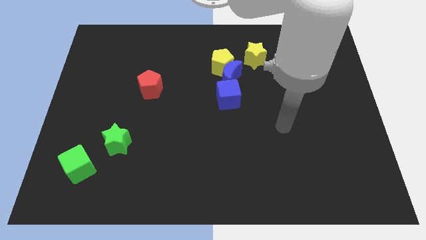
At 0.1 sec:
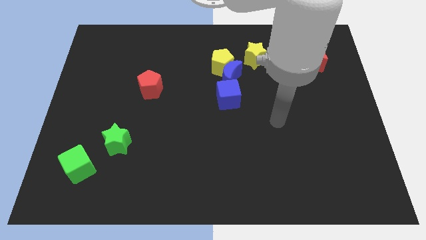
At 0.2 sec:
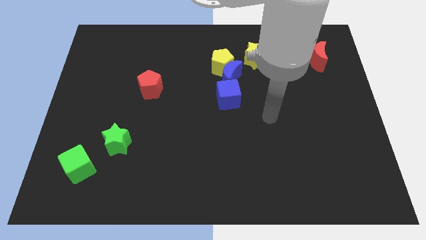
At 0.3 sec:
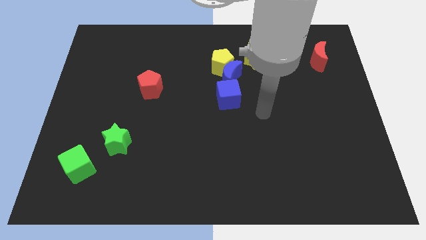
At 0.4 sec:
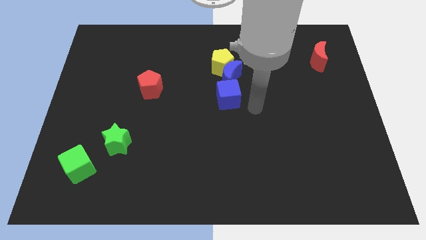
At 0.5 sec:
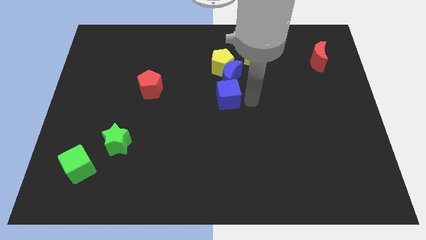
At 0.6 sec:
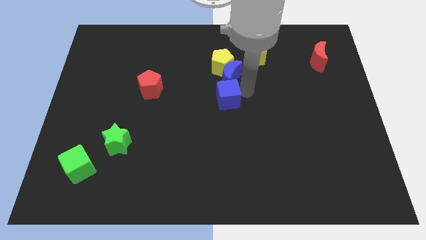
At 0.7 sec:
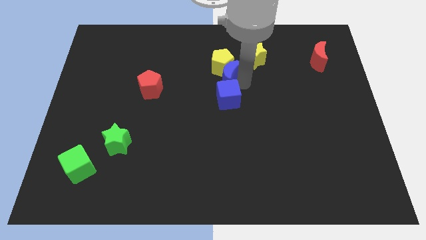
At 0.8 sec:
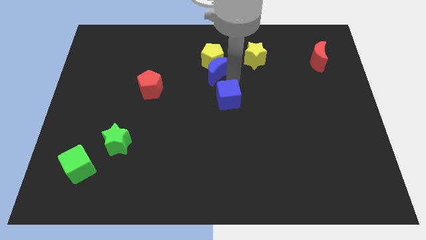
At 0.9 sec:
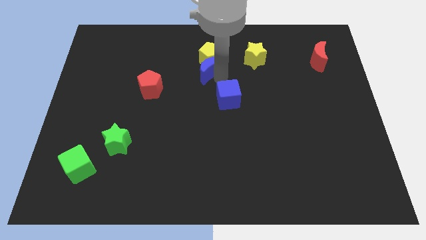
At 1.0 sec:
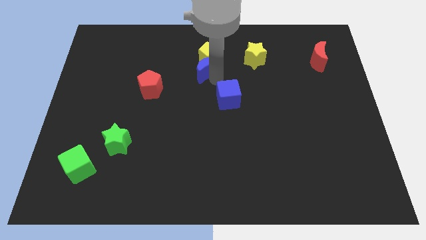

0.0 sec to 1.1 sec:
separate the blue cube from the blue moon

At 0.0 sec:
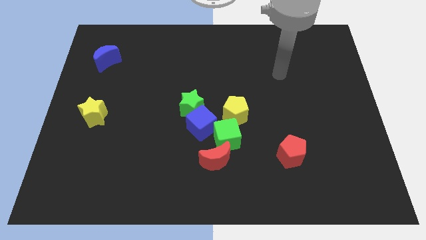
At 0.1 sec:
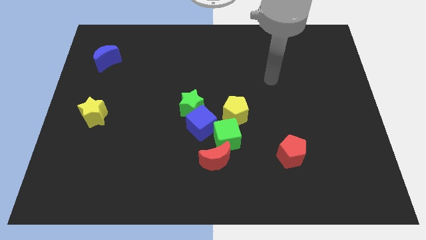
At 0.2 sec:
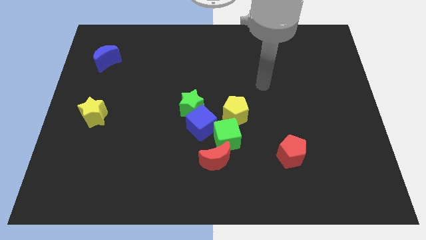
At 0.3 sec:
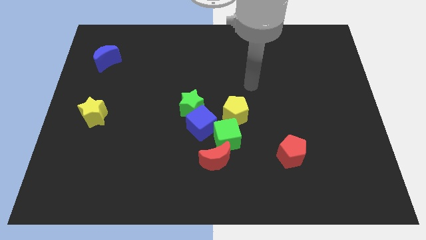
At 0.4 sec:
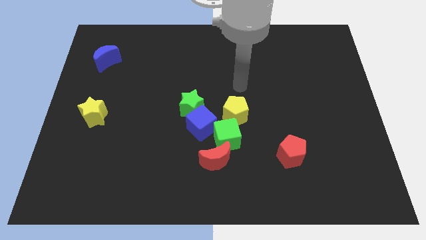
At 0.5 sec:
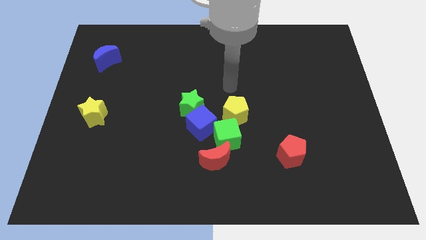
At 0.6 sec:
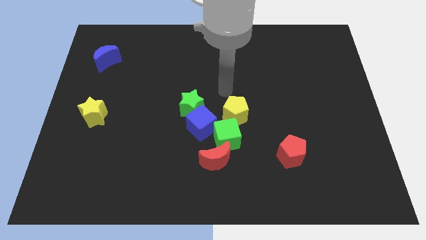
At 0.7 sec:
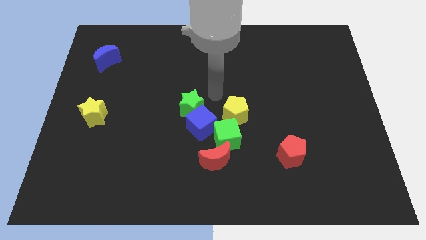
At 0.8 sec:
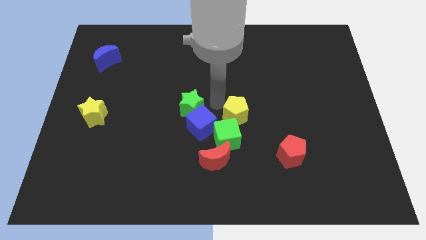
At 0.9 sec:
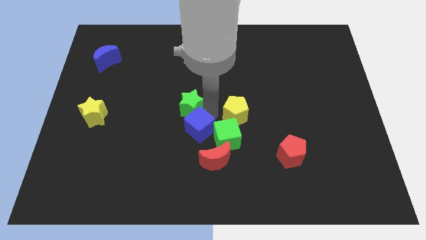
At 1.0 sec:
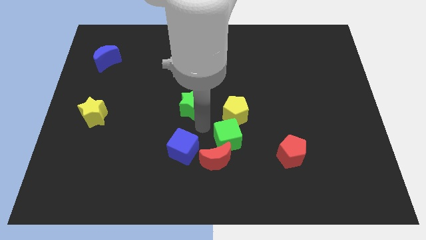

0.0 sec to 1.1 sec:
pull the green star apart from the blue cube

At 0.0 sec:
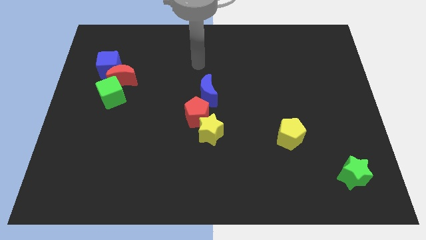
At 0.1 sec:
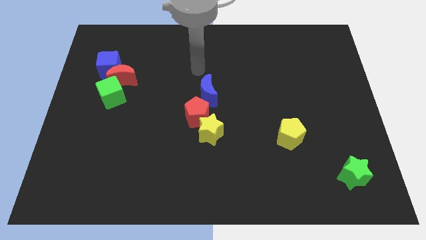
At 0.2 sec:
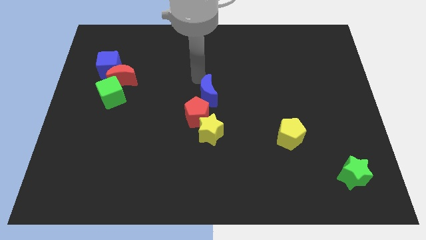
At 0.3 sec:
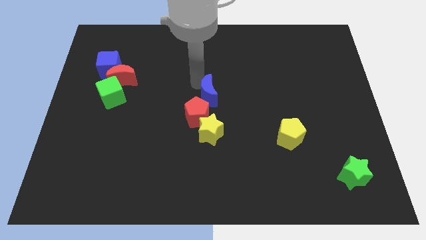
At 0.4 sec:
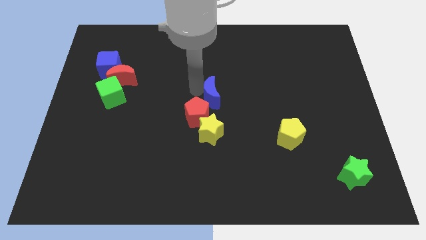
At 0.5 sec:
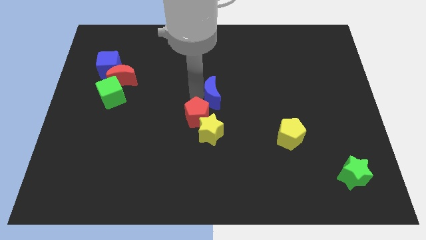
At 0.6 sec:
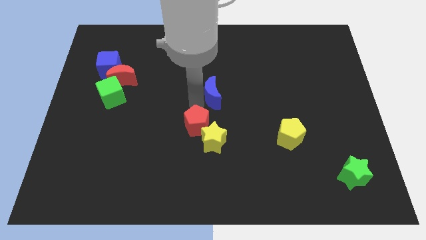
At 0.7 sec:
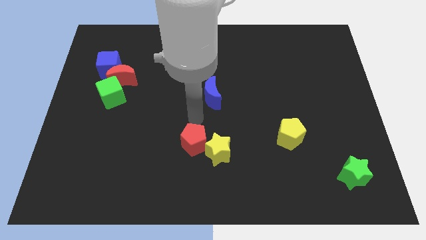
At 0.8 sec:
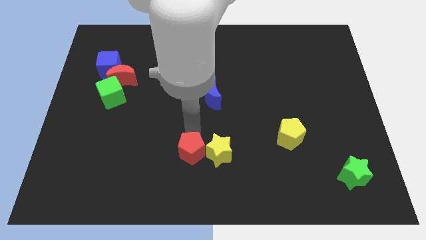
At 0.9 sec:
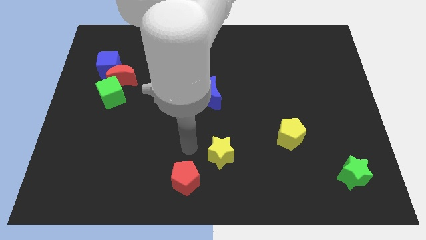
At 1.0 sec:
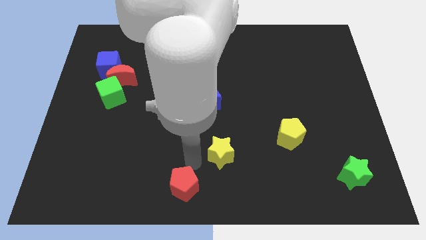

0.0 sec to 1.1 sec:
pull the yellow star apart from the red pentagon

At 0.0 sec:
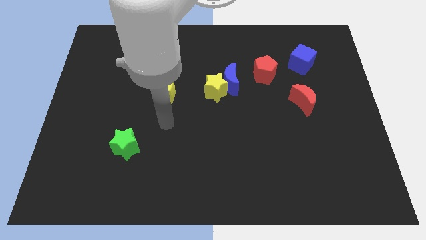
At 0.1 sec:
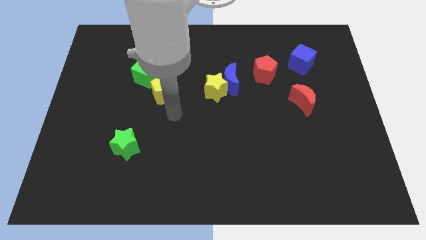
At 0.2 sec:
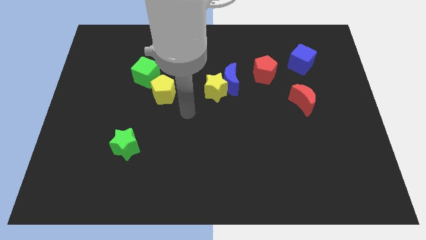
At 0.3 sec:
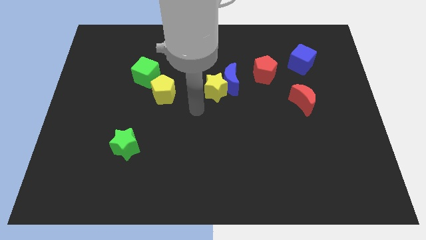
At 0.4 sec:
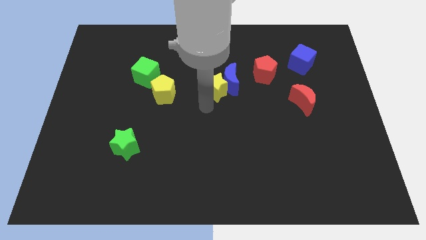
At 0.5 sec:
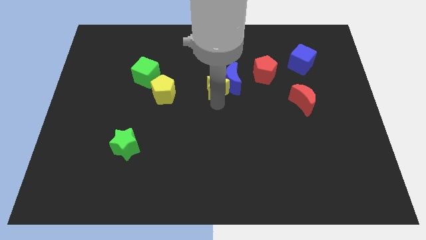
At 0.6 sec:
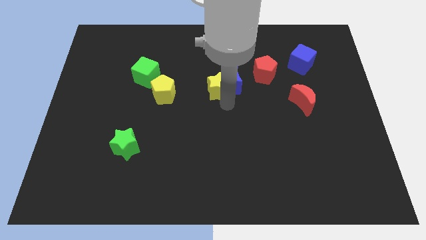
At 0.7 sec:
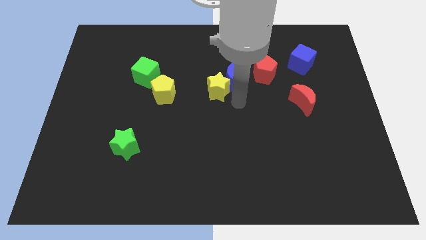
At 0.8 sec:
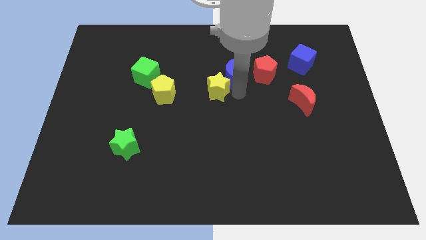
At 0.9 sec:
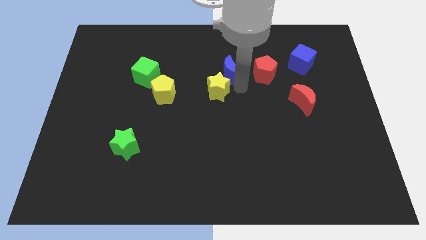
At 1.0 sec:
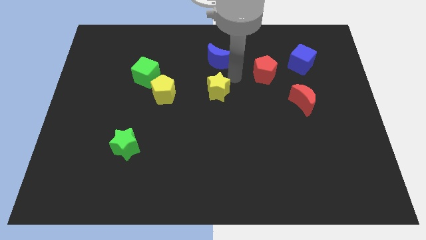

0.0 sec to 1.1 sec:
pull the yellow star apart from the blue moon

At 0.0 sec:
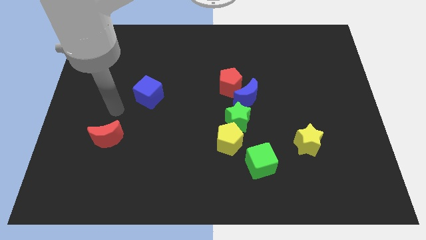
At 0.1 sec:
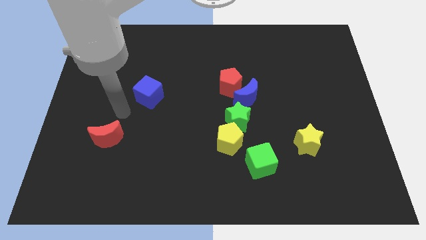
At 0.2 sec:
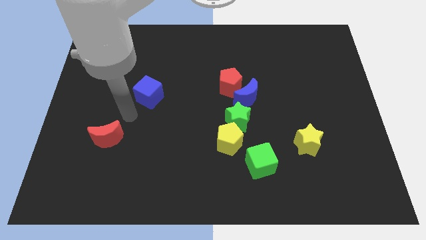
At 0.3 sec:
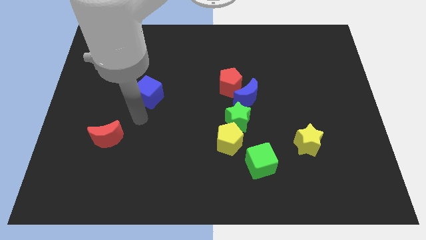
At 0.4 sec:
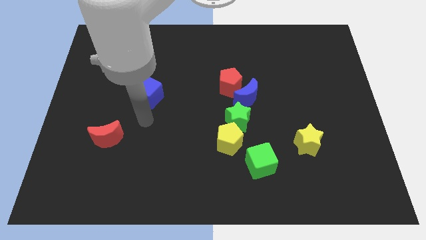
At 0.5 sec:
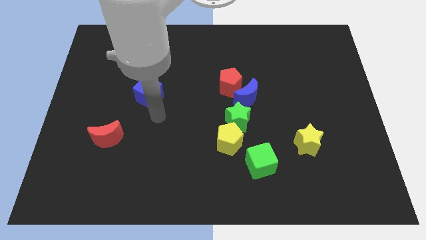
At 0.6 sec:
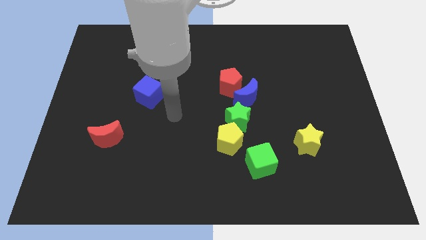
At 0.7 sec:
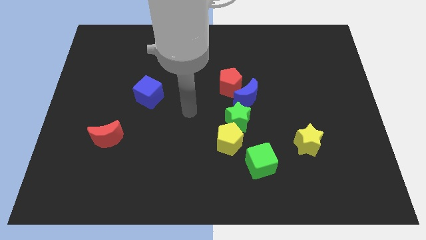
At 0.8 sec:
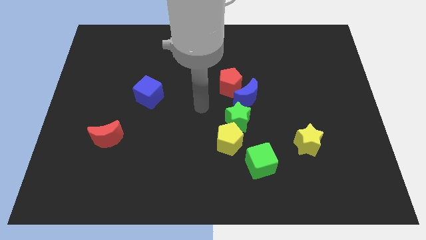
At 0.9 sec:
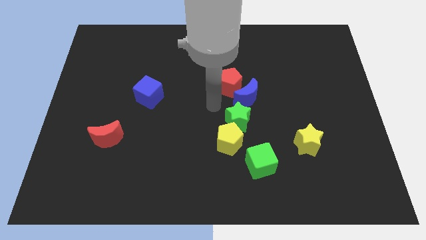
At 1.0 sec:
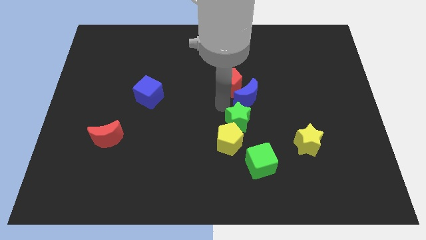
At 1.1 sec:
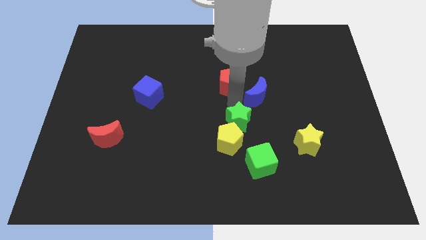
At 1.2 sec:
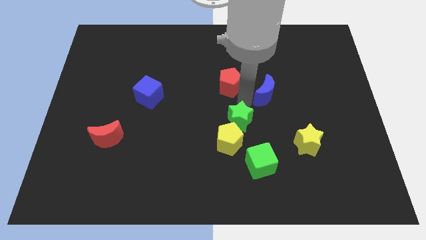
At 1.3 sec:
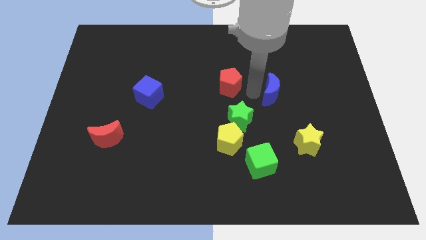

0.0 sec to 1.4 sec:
separate the red pentagon from the blue moon

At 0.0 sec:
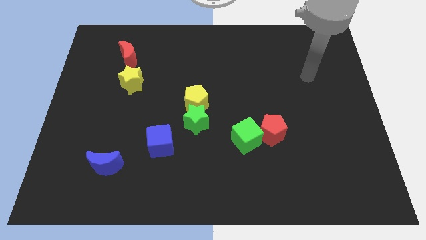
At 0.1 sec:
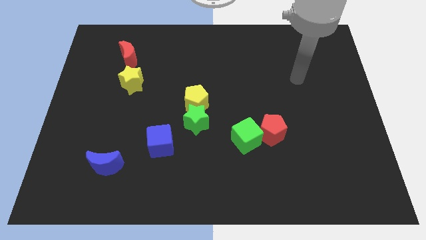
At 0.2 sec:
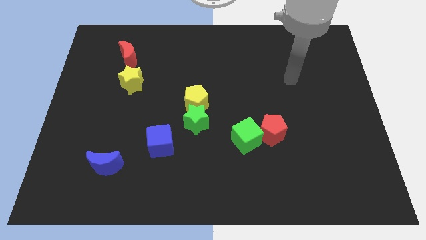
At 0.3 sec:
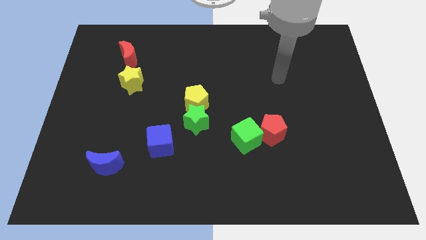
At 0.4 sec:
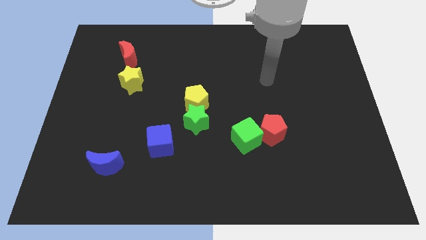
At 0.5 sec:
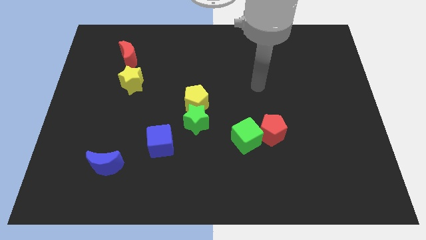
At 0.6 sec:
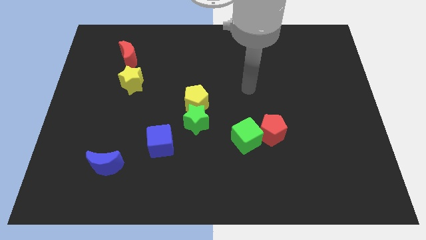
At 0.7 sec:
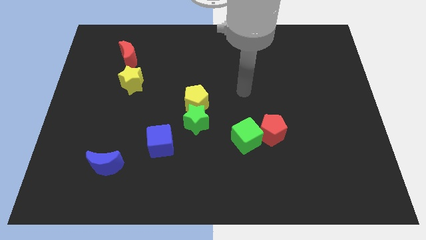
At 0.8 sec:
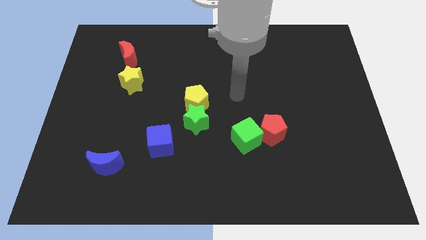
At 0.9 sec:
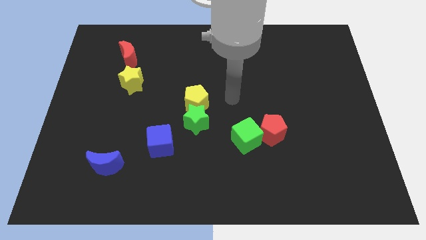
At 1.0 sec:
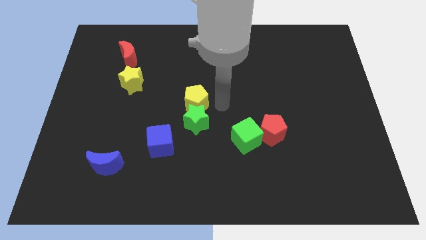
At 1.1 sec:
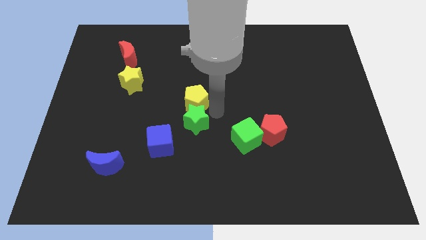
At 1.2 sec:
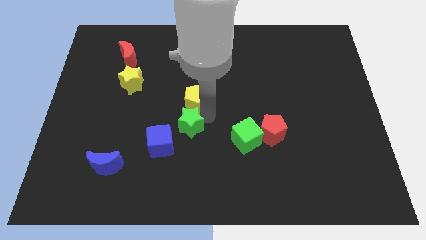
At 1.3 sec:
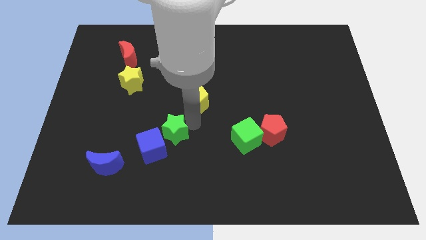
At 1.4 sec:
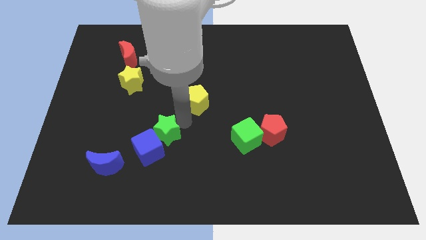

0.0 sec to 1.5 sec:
move the yellow pentagon away from the green star

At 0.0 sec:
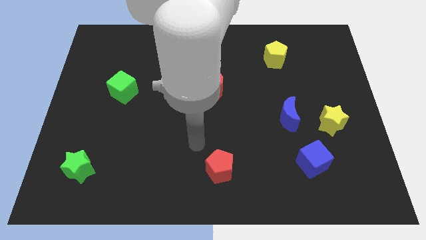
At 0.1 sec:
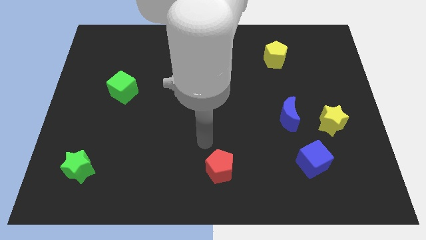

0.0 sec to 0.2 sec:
move the blue moon away from the yellow star

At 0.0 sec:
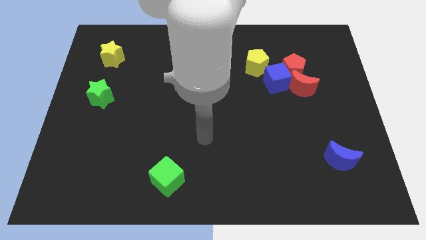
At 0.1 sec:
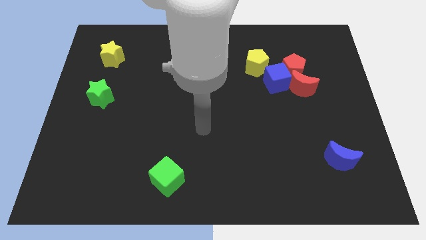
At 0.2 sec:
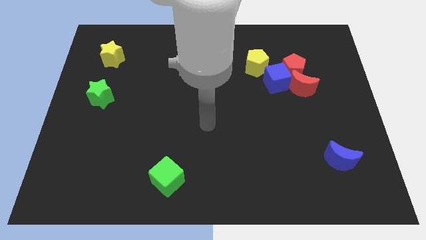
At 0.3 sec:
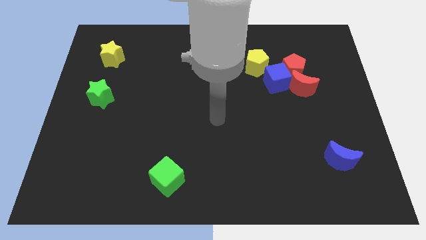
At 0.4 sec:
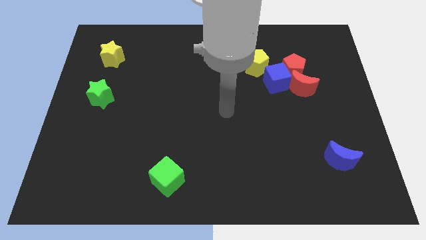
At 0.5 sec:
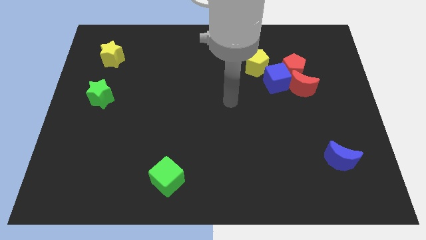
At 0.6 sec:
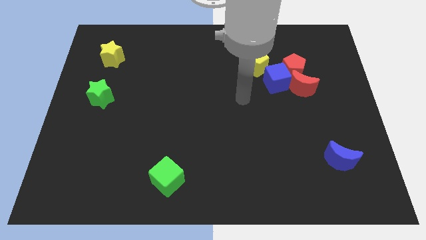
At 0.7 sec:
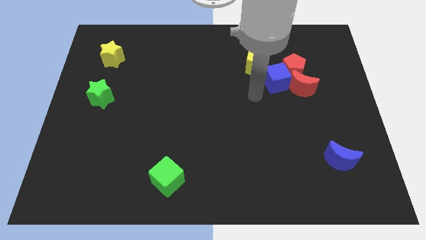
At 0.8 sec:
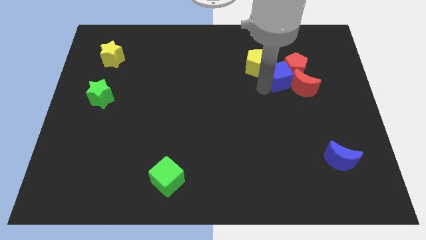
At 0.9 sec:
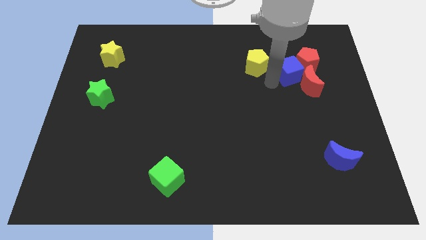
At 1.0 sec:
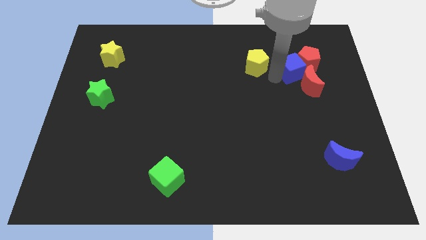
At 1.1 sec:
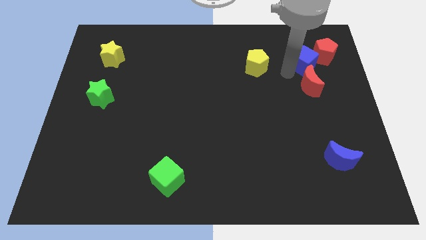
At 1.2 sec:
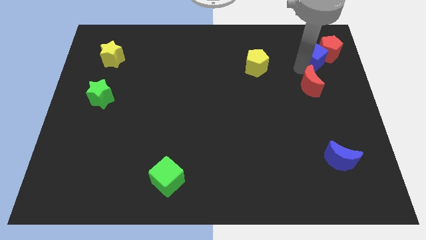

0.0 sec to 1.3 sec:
move the red moon away from the red pentagon and blue cube

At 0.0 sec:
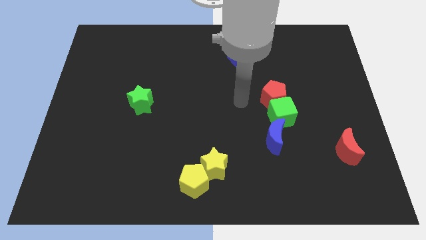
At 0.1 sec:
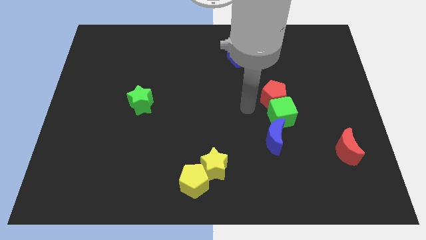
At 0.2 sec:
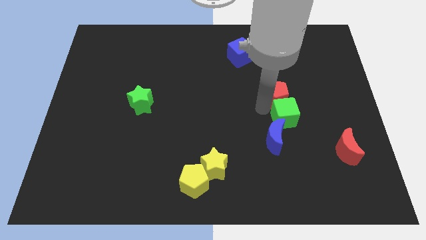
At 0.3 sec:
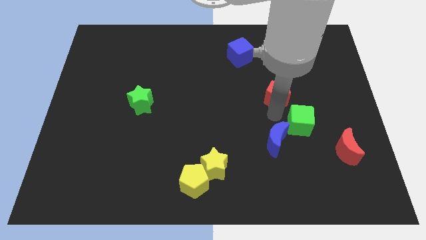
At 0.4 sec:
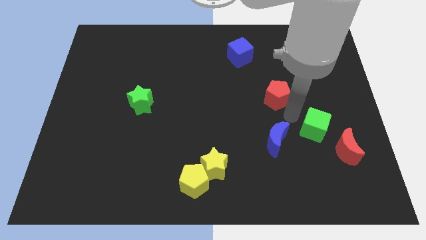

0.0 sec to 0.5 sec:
pull the red pentagon apart from the green cube

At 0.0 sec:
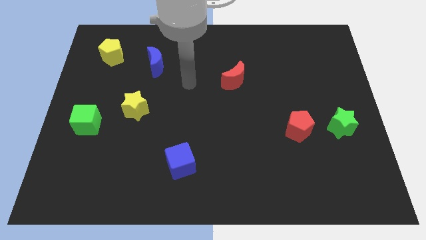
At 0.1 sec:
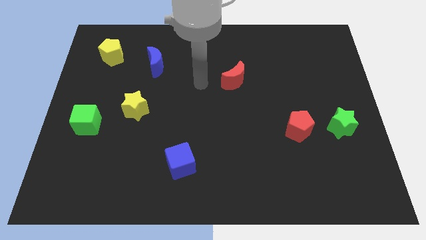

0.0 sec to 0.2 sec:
move the red pentagon away from the green star
